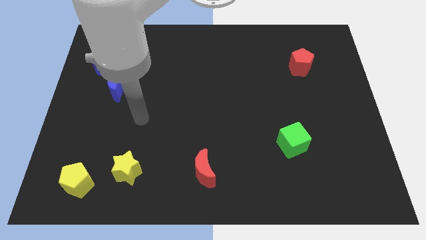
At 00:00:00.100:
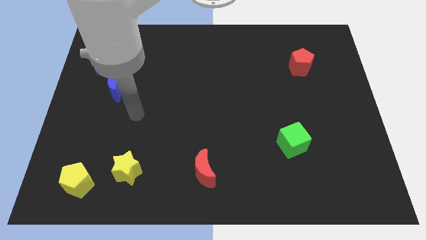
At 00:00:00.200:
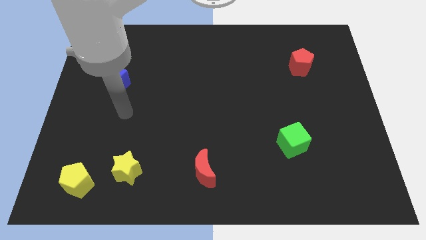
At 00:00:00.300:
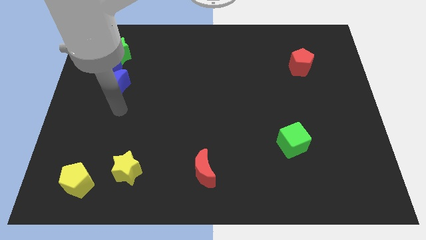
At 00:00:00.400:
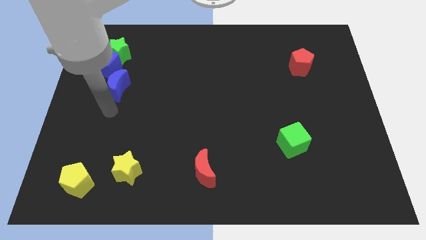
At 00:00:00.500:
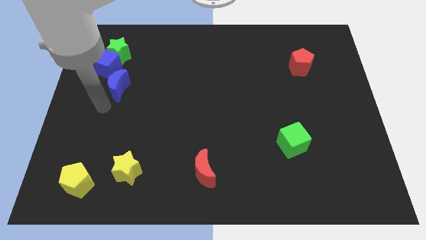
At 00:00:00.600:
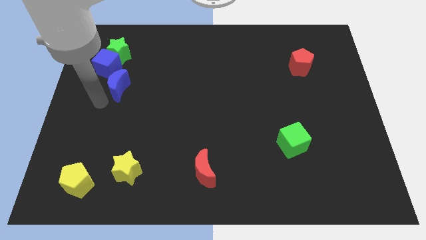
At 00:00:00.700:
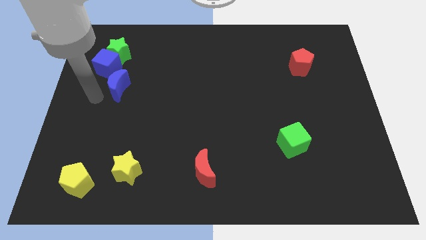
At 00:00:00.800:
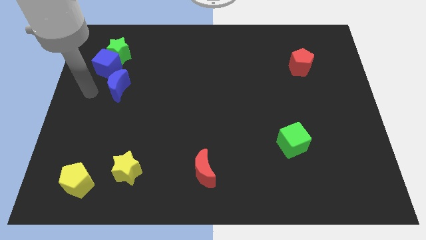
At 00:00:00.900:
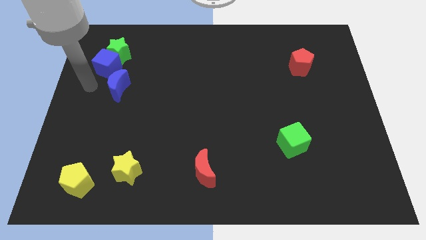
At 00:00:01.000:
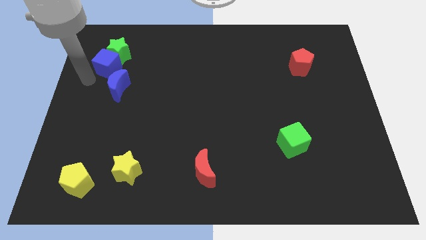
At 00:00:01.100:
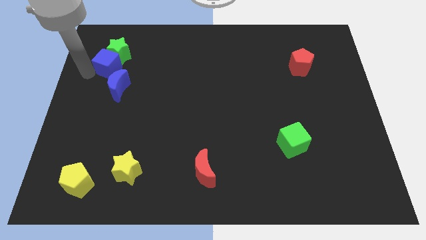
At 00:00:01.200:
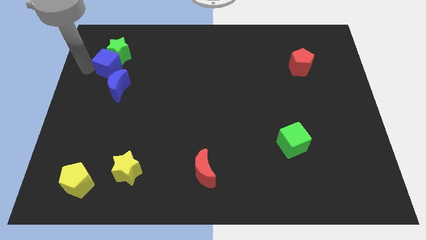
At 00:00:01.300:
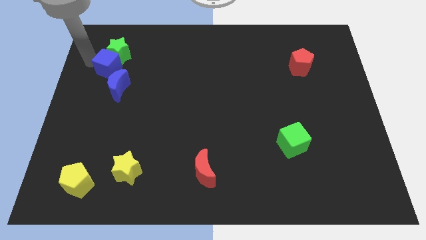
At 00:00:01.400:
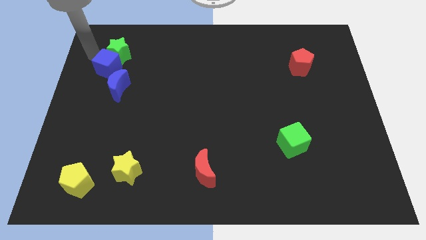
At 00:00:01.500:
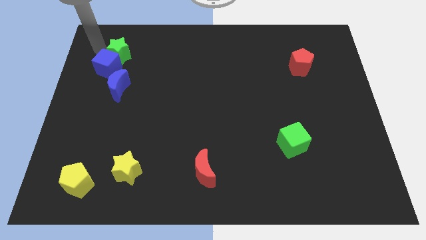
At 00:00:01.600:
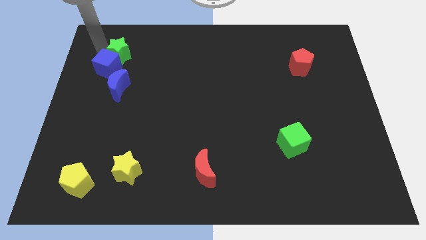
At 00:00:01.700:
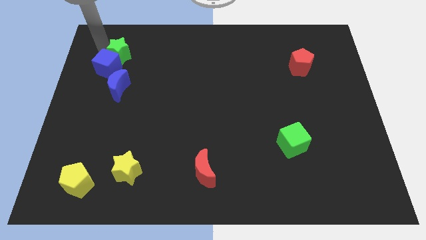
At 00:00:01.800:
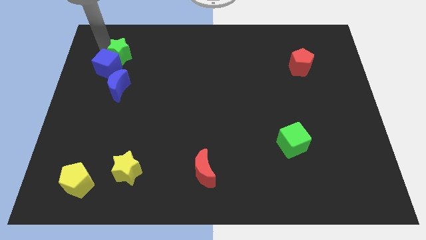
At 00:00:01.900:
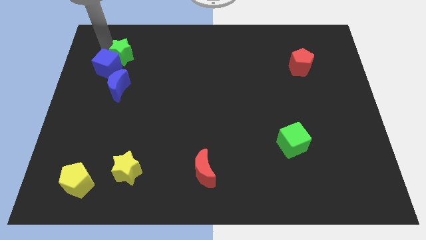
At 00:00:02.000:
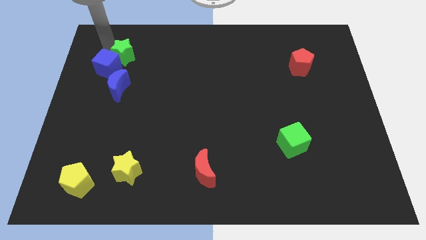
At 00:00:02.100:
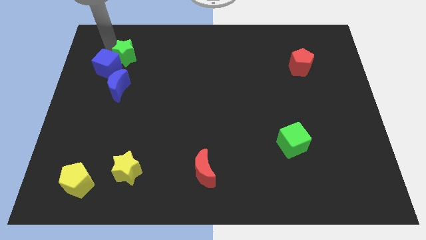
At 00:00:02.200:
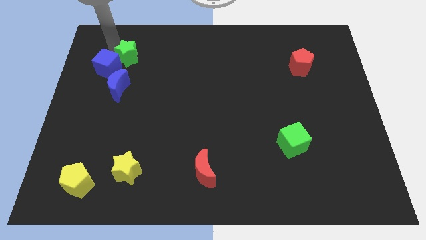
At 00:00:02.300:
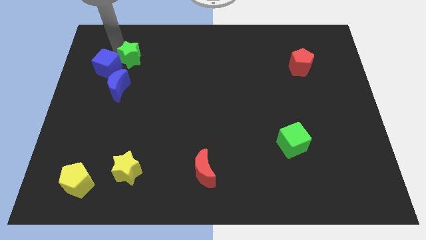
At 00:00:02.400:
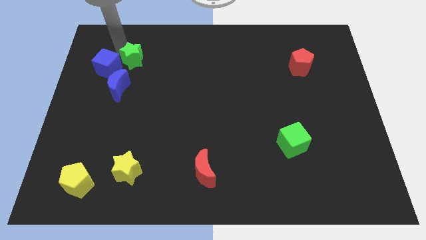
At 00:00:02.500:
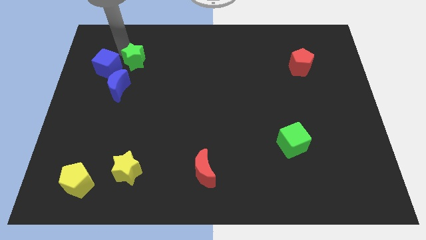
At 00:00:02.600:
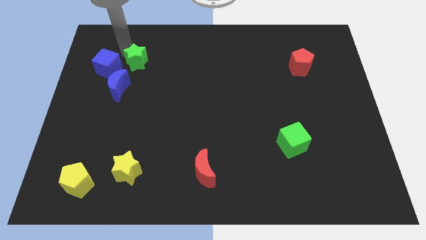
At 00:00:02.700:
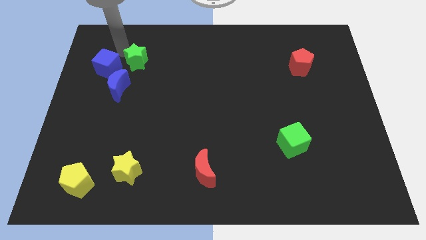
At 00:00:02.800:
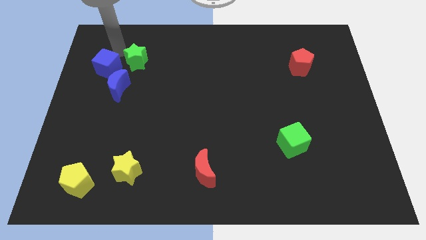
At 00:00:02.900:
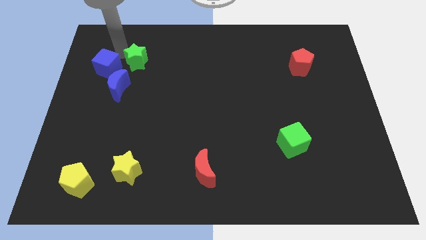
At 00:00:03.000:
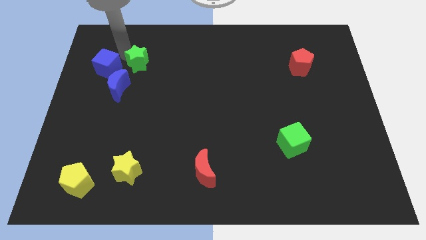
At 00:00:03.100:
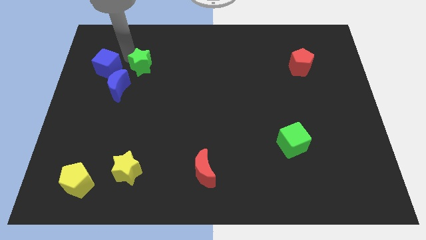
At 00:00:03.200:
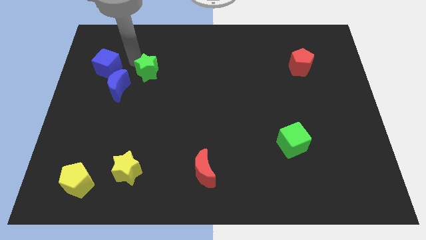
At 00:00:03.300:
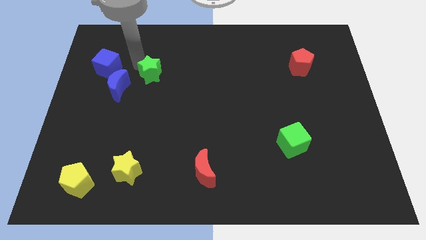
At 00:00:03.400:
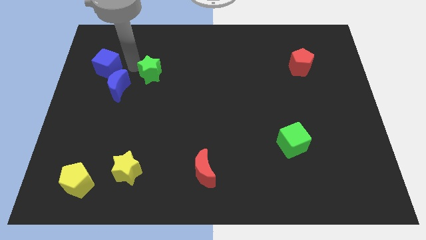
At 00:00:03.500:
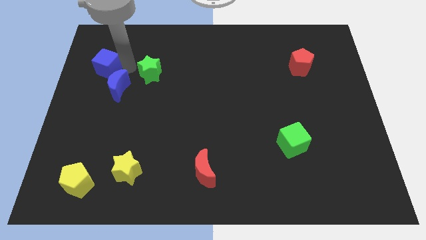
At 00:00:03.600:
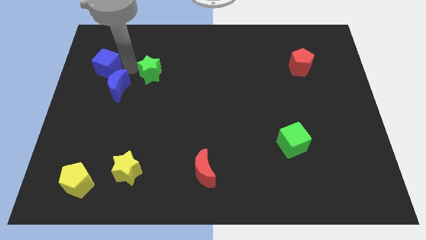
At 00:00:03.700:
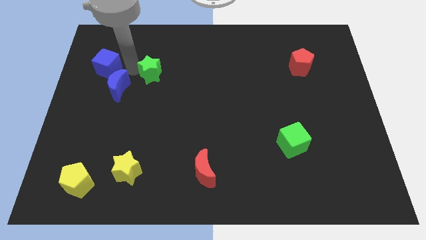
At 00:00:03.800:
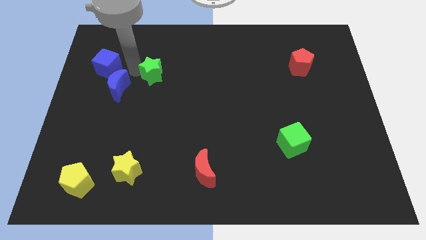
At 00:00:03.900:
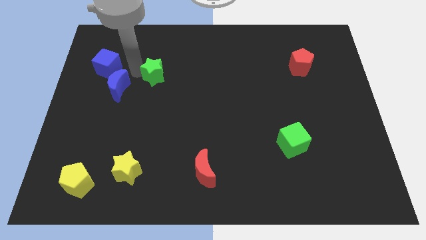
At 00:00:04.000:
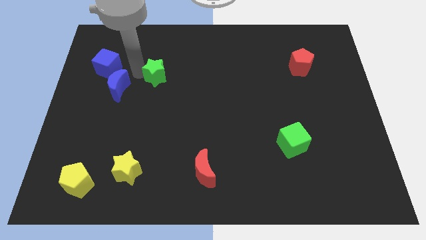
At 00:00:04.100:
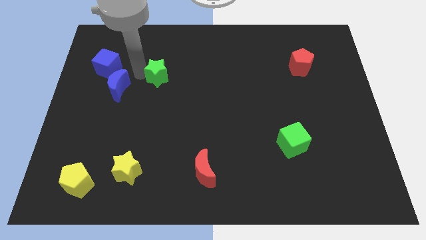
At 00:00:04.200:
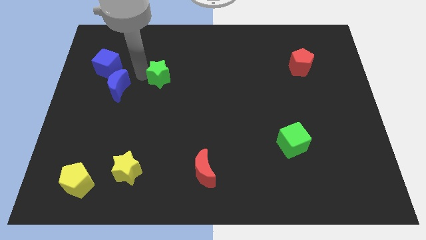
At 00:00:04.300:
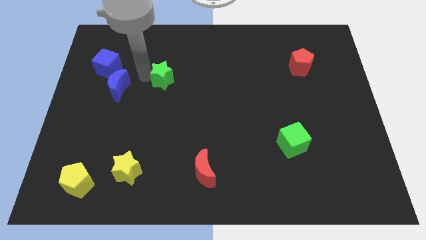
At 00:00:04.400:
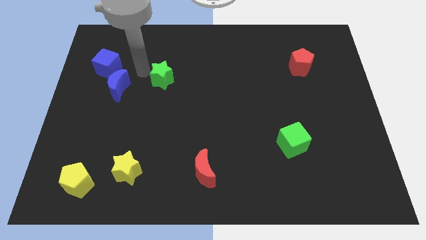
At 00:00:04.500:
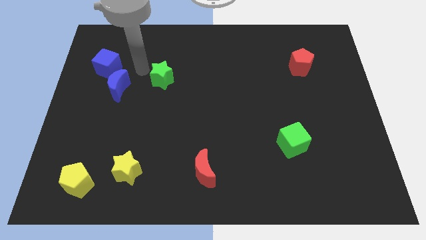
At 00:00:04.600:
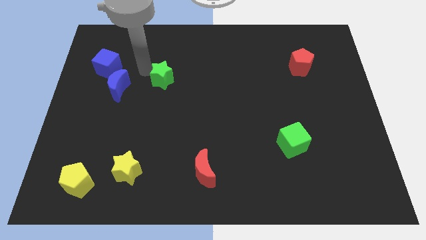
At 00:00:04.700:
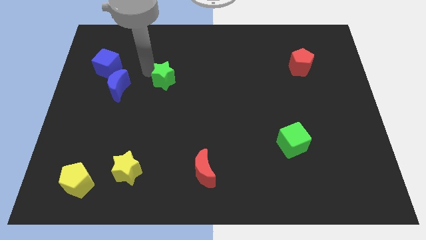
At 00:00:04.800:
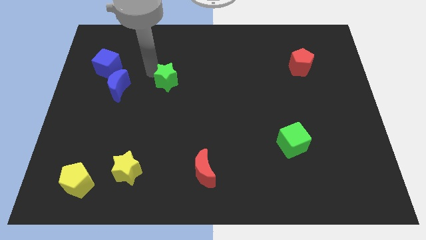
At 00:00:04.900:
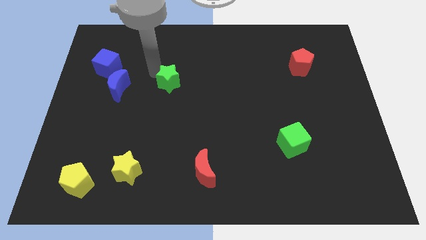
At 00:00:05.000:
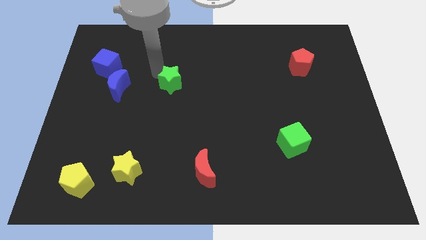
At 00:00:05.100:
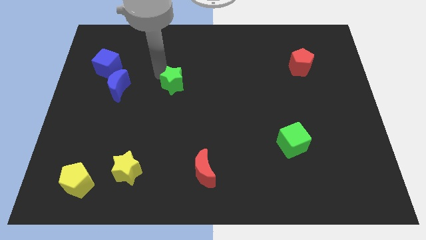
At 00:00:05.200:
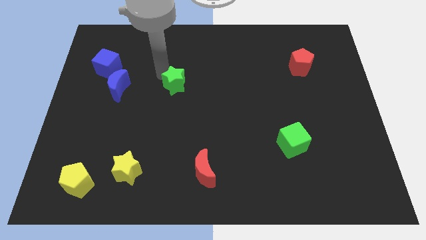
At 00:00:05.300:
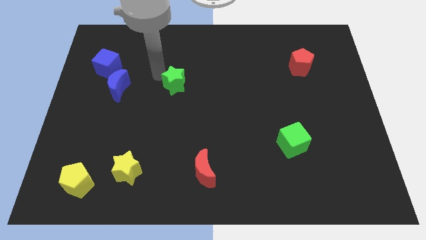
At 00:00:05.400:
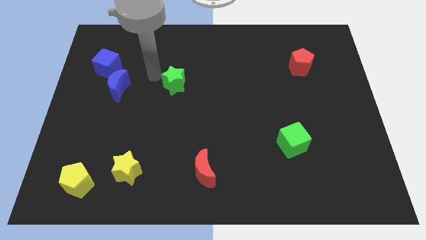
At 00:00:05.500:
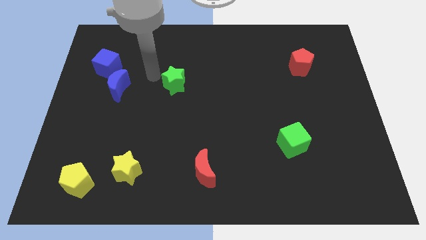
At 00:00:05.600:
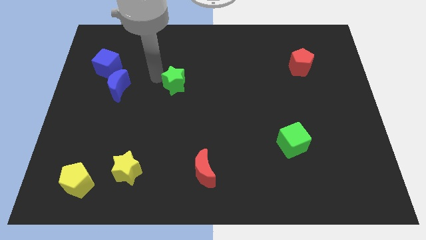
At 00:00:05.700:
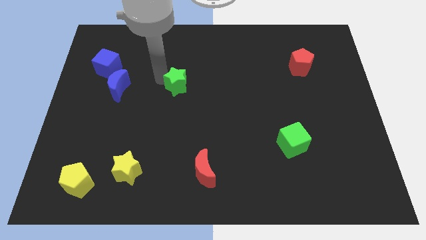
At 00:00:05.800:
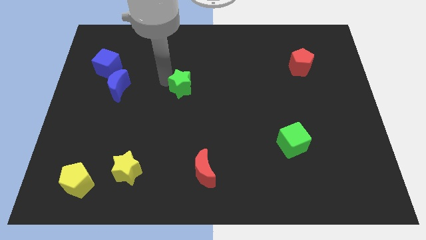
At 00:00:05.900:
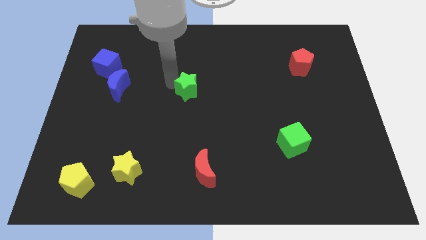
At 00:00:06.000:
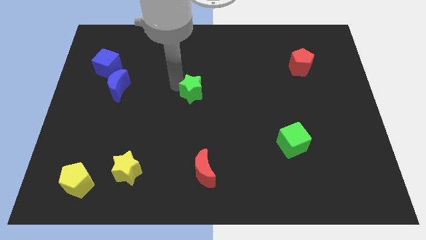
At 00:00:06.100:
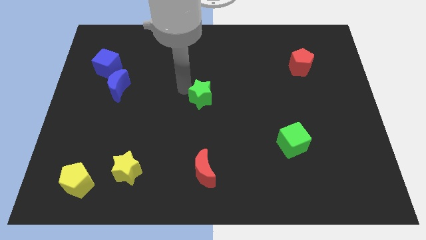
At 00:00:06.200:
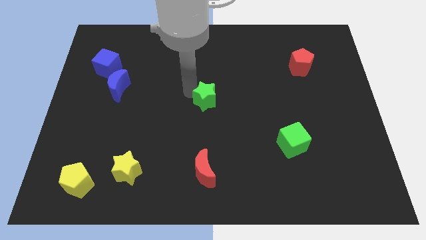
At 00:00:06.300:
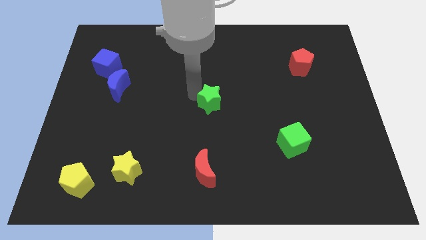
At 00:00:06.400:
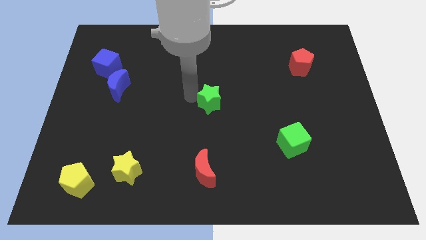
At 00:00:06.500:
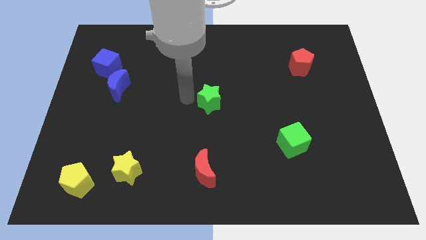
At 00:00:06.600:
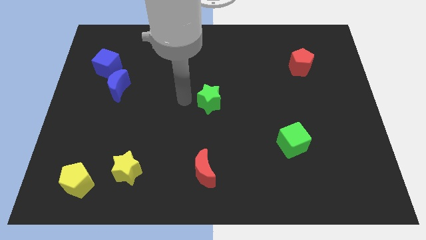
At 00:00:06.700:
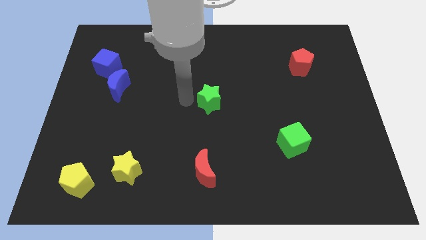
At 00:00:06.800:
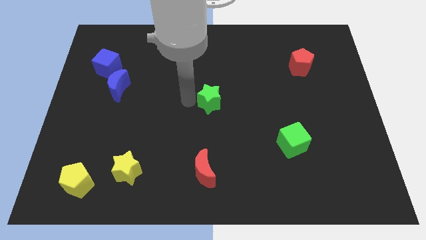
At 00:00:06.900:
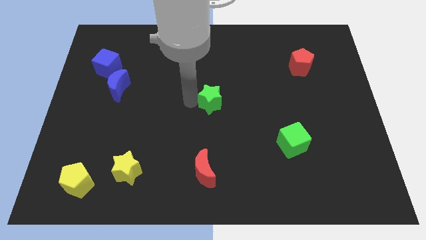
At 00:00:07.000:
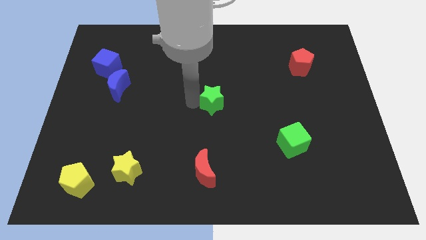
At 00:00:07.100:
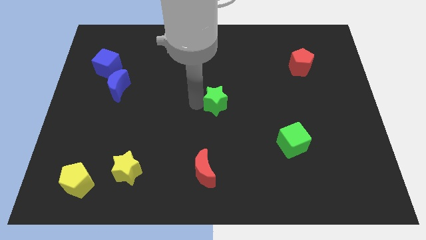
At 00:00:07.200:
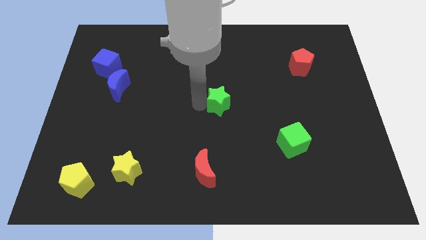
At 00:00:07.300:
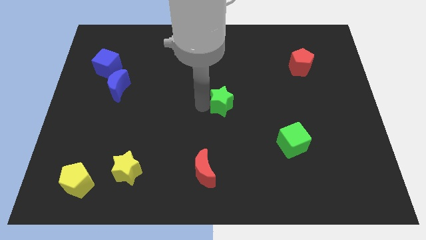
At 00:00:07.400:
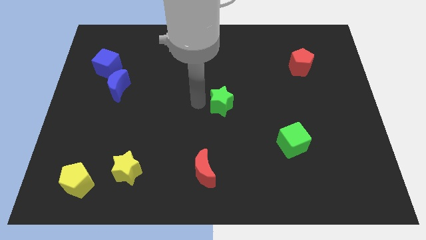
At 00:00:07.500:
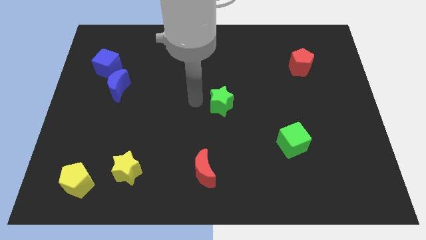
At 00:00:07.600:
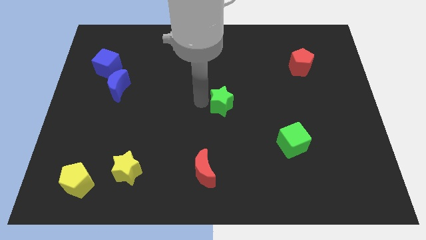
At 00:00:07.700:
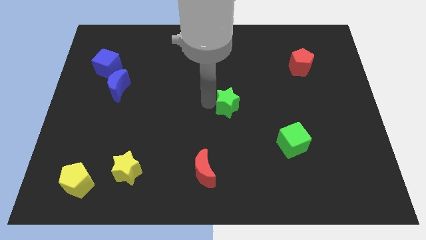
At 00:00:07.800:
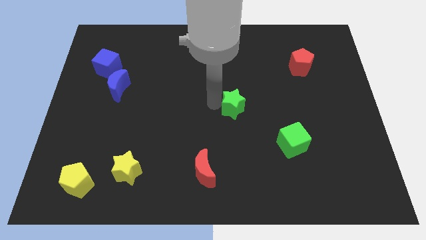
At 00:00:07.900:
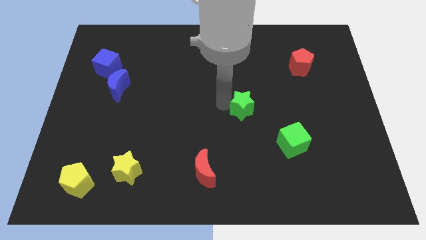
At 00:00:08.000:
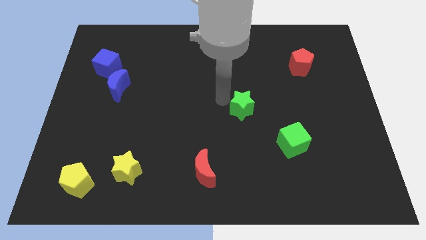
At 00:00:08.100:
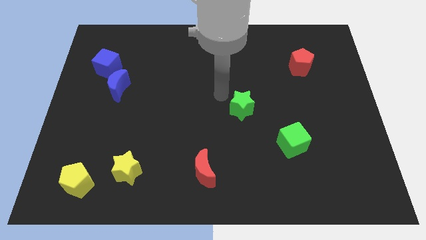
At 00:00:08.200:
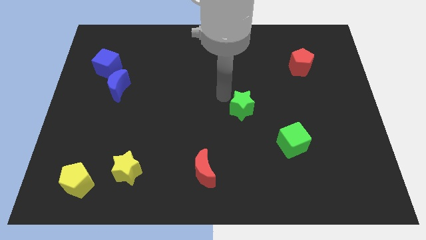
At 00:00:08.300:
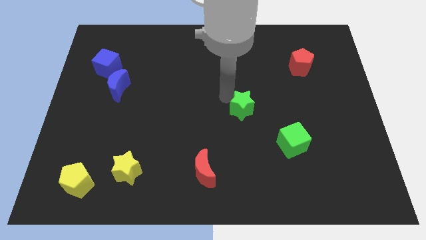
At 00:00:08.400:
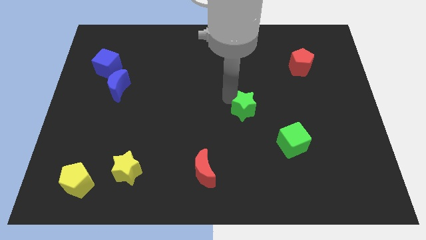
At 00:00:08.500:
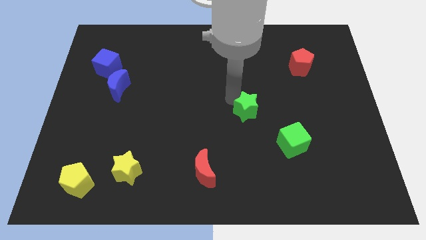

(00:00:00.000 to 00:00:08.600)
move the green star to the top left of the green cube
